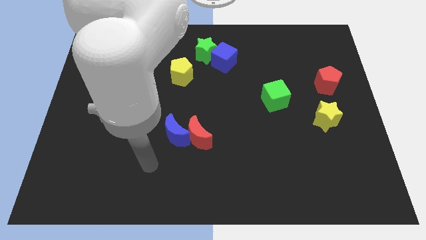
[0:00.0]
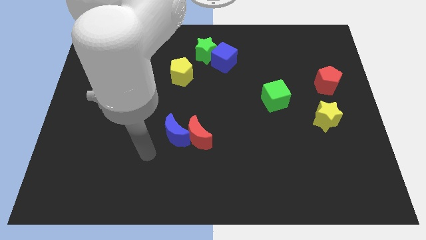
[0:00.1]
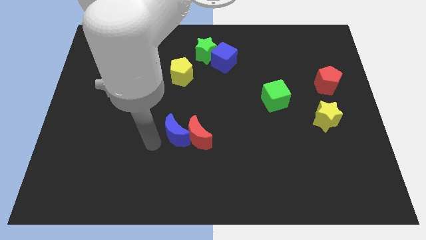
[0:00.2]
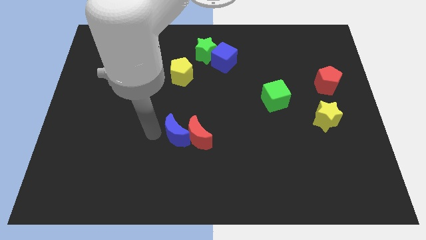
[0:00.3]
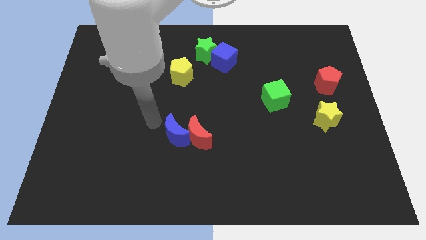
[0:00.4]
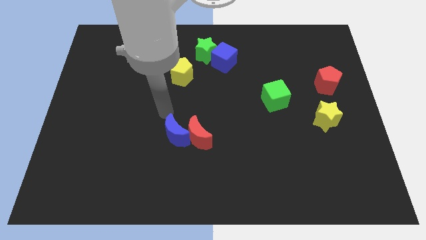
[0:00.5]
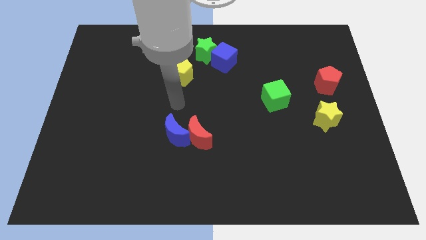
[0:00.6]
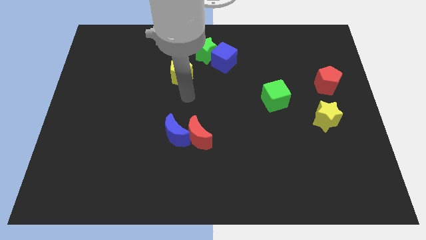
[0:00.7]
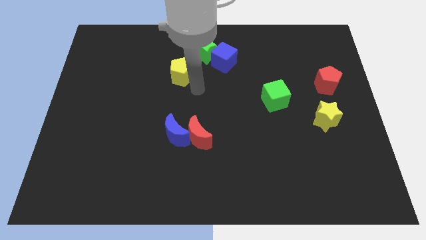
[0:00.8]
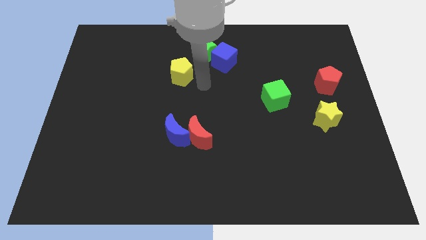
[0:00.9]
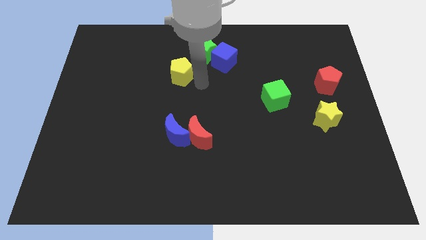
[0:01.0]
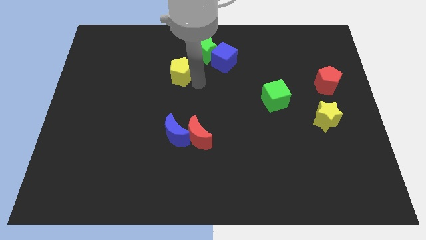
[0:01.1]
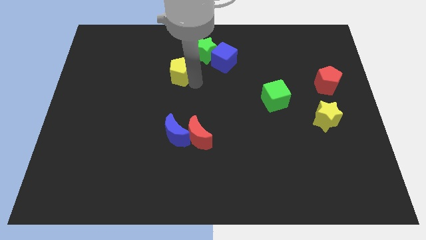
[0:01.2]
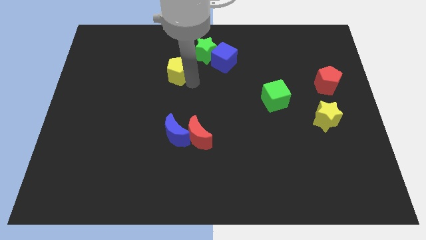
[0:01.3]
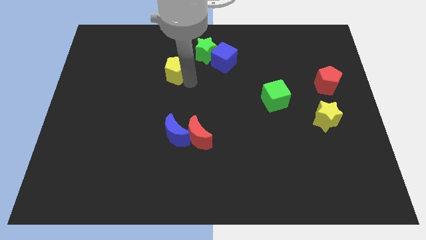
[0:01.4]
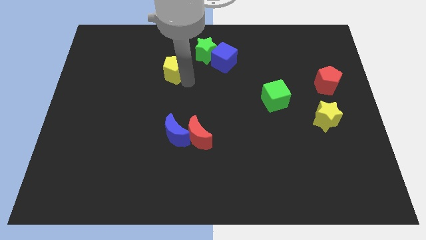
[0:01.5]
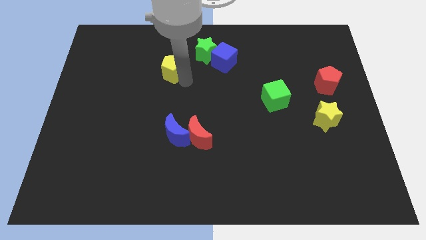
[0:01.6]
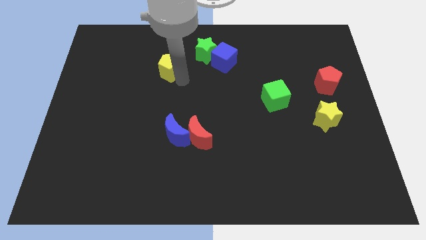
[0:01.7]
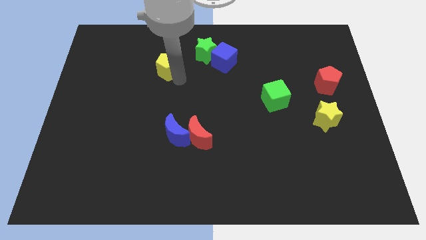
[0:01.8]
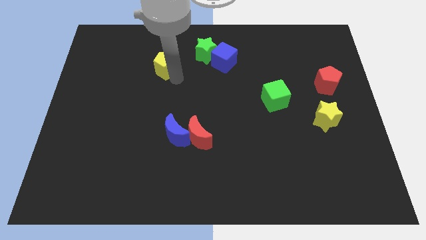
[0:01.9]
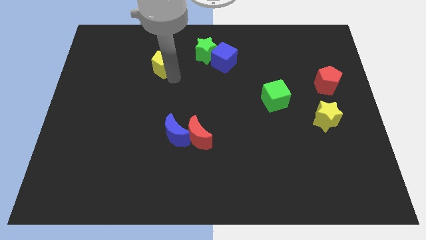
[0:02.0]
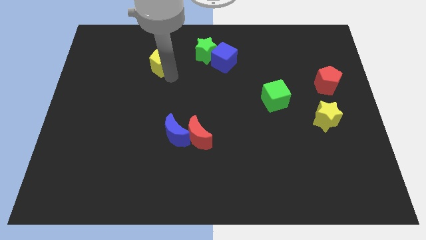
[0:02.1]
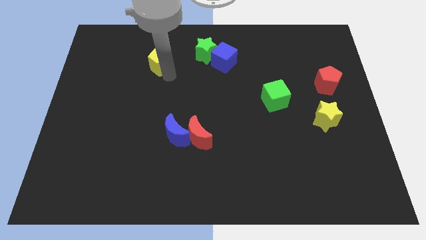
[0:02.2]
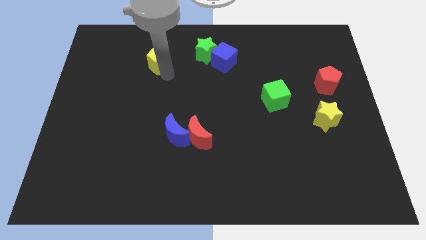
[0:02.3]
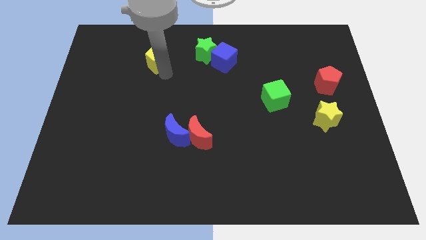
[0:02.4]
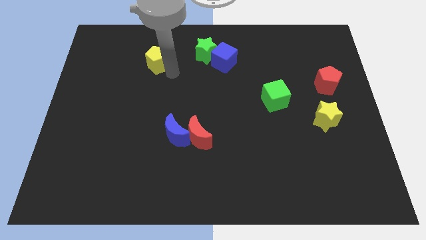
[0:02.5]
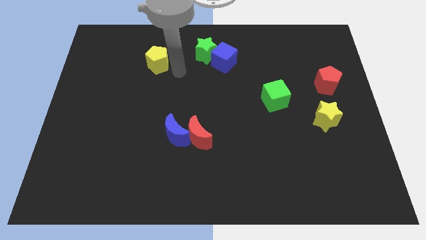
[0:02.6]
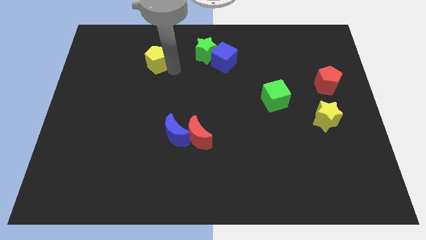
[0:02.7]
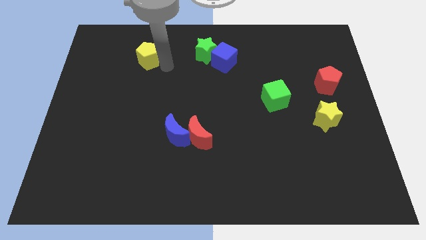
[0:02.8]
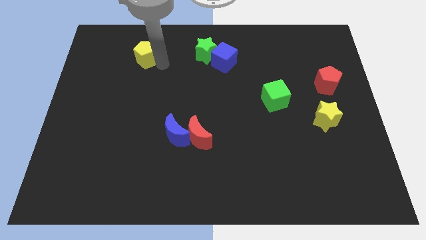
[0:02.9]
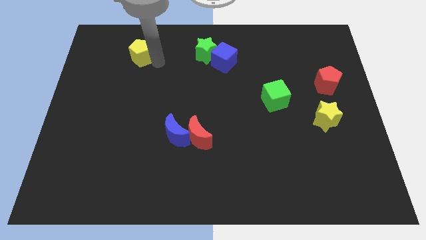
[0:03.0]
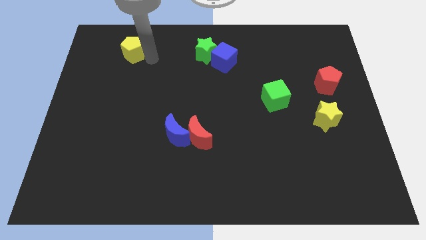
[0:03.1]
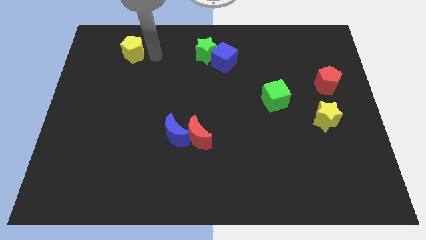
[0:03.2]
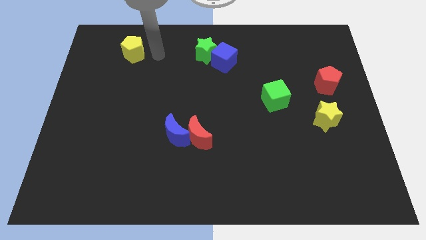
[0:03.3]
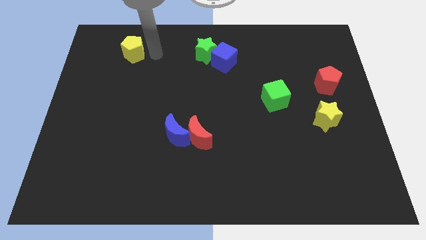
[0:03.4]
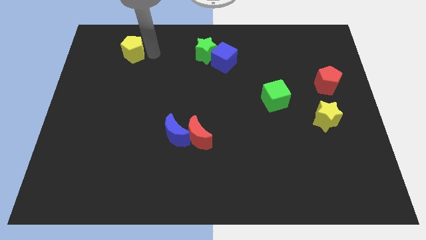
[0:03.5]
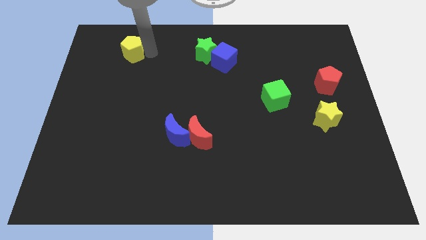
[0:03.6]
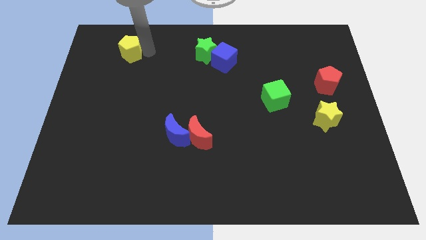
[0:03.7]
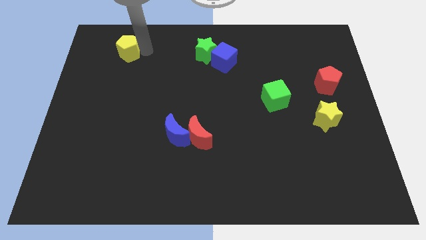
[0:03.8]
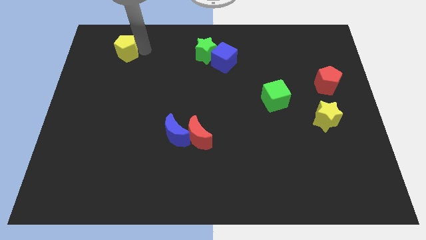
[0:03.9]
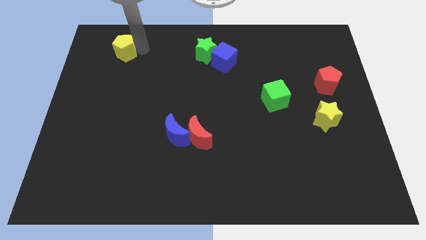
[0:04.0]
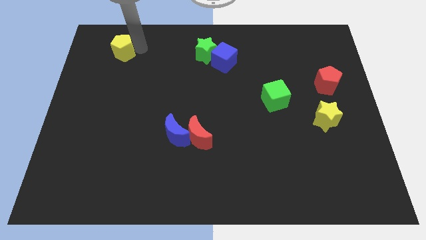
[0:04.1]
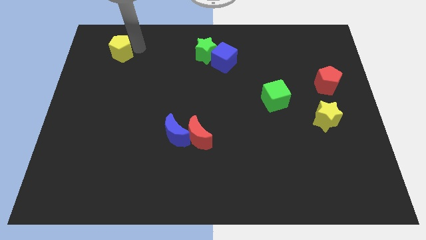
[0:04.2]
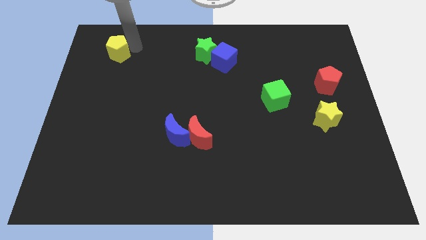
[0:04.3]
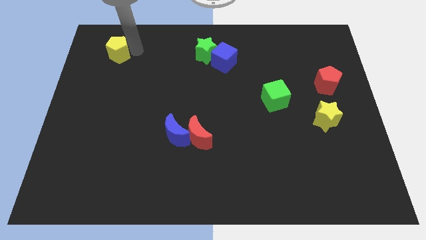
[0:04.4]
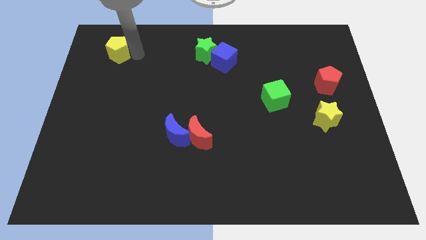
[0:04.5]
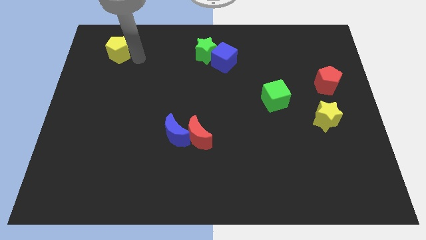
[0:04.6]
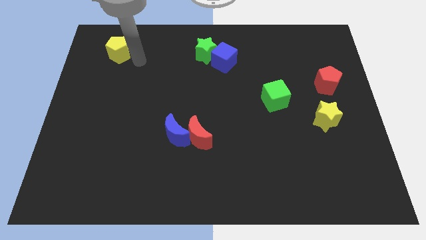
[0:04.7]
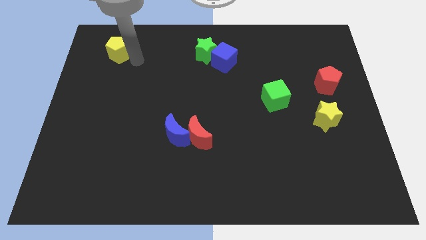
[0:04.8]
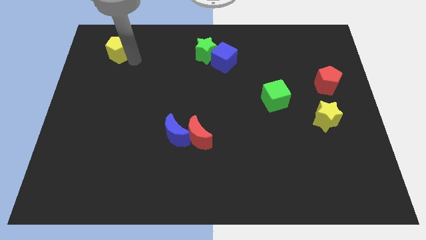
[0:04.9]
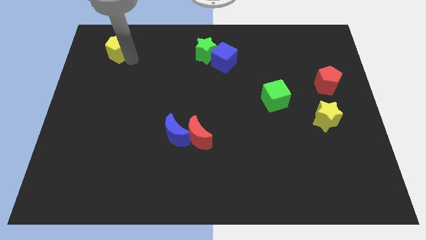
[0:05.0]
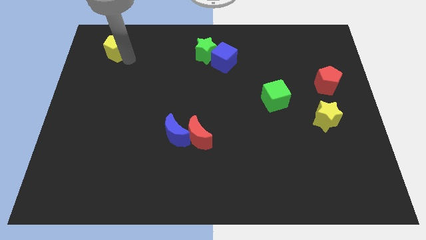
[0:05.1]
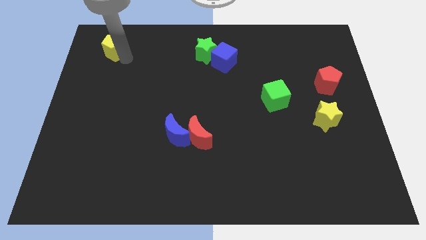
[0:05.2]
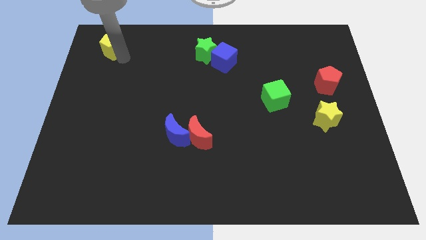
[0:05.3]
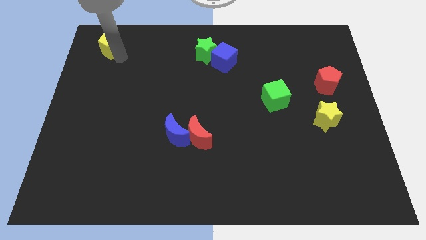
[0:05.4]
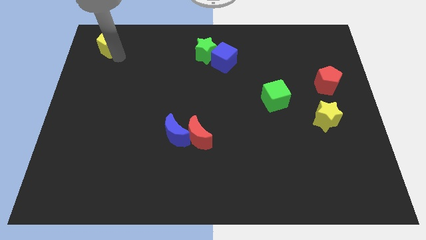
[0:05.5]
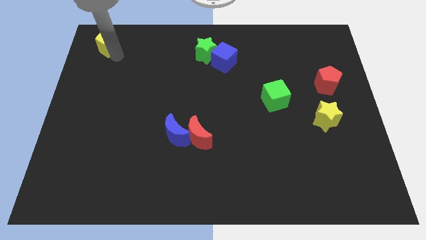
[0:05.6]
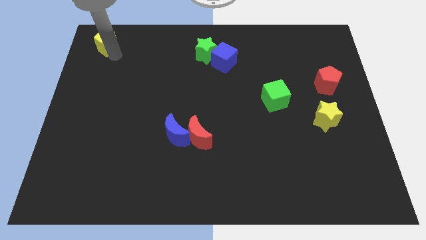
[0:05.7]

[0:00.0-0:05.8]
move the yellow pentagon to the top left corner
